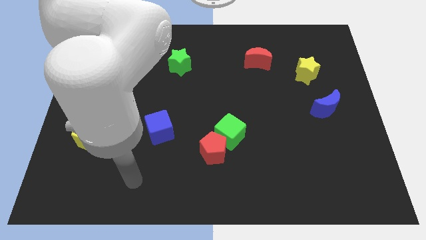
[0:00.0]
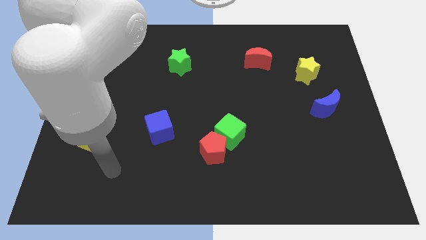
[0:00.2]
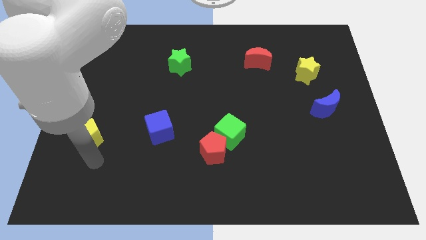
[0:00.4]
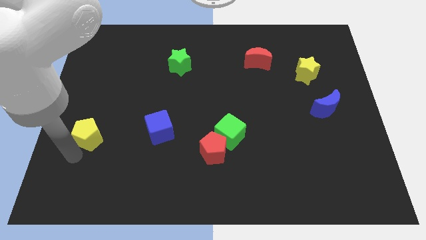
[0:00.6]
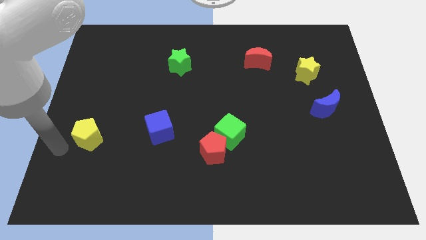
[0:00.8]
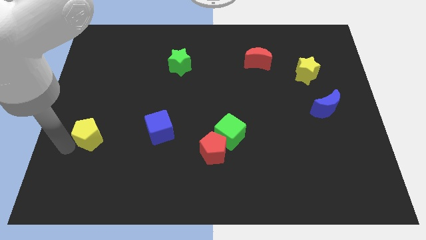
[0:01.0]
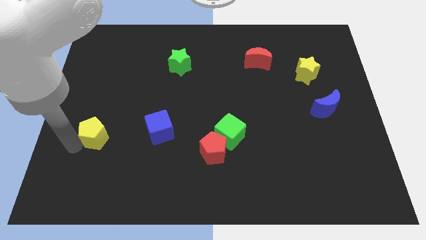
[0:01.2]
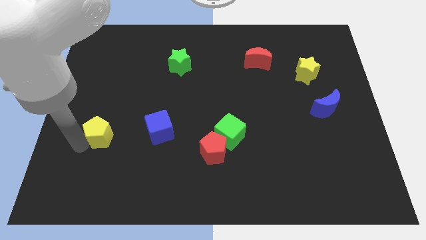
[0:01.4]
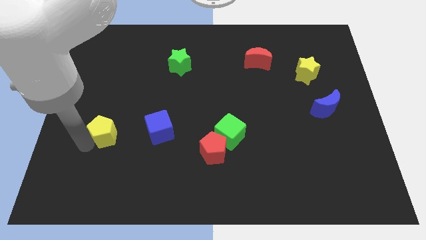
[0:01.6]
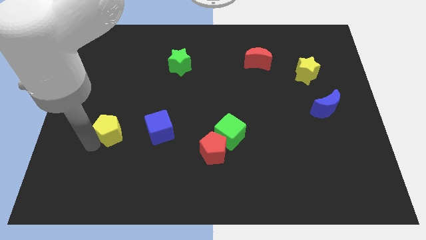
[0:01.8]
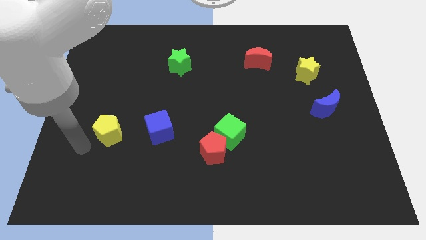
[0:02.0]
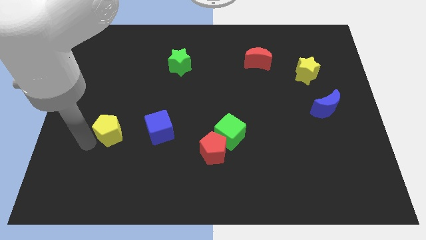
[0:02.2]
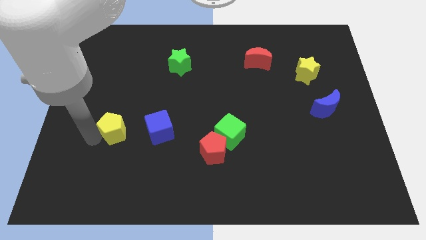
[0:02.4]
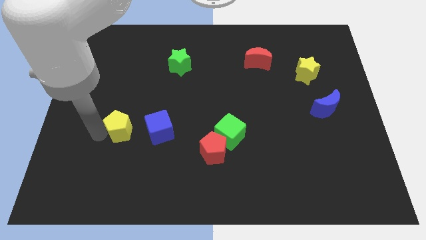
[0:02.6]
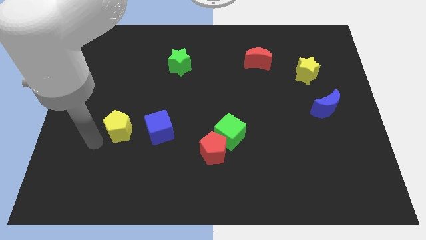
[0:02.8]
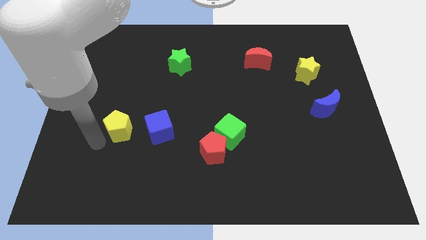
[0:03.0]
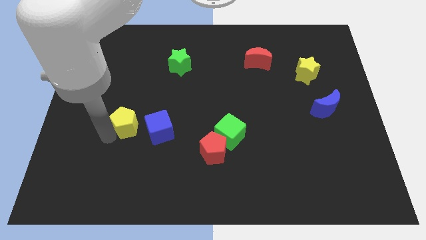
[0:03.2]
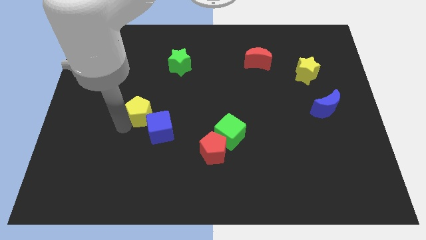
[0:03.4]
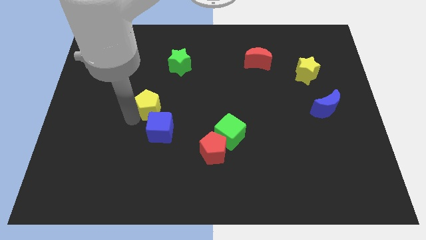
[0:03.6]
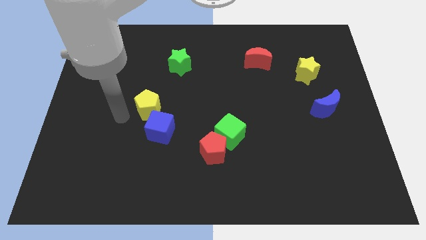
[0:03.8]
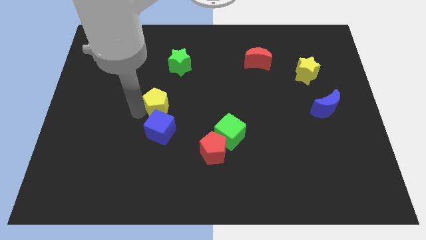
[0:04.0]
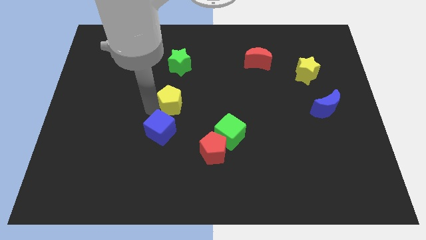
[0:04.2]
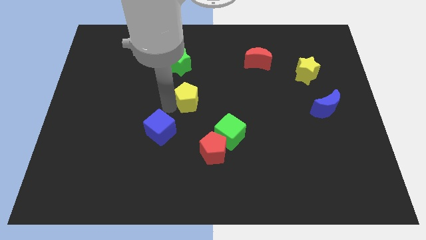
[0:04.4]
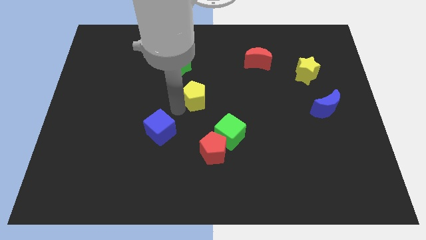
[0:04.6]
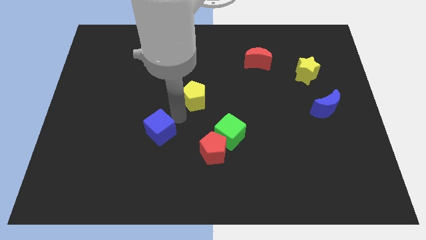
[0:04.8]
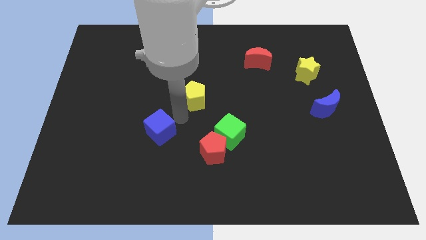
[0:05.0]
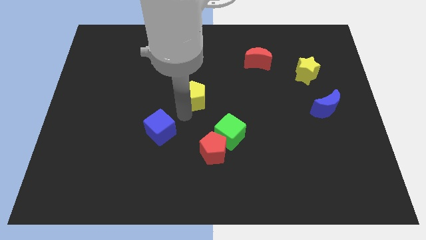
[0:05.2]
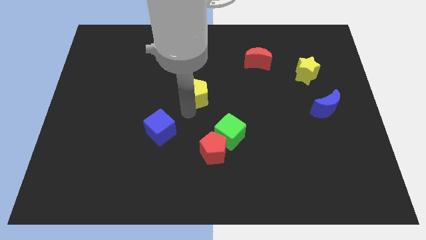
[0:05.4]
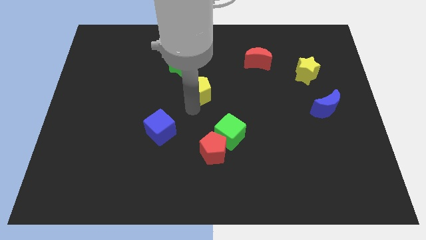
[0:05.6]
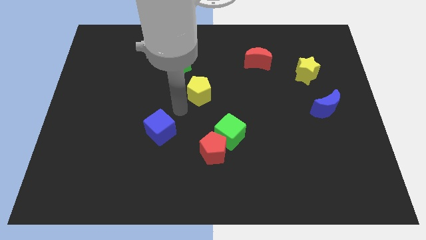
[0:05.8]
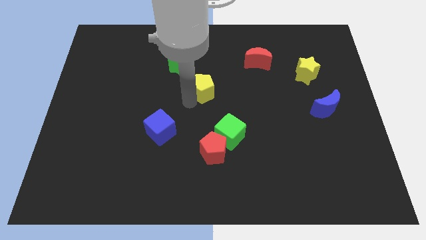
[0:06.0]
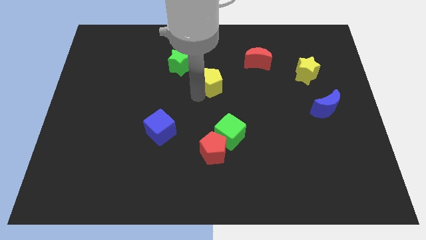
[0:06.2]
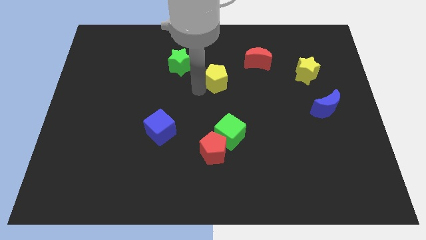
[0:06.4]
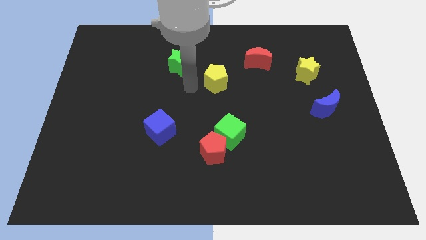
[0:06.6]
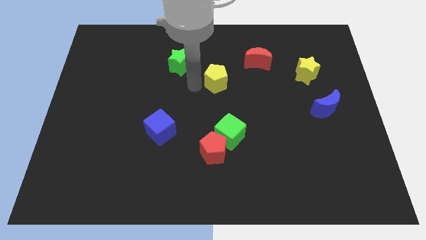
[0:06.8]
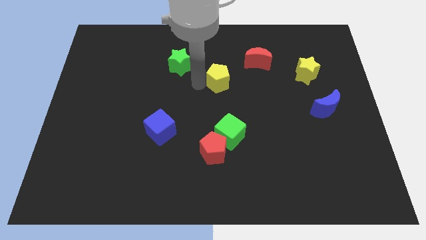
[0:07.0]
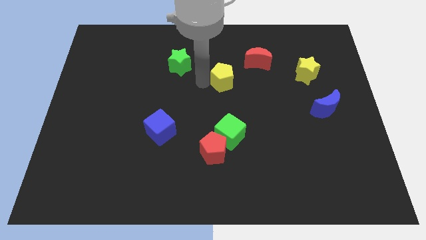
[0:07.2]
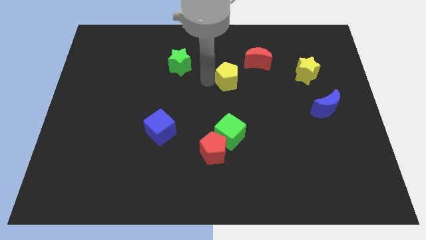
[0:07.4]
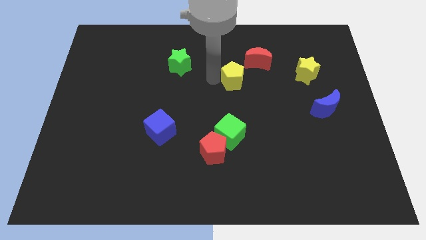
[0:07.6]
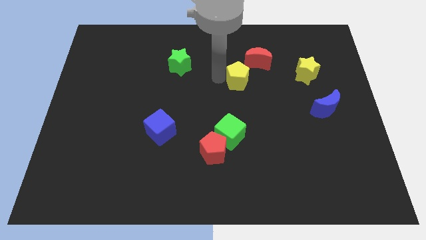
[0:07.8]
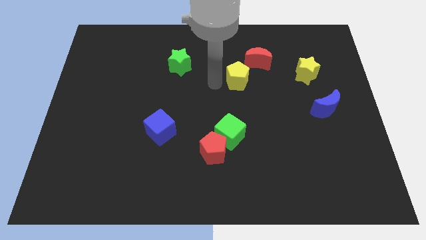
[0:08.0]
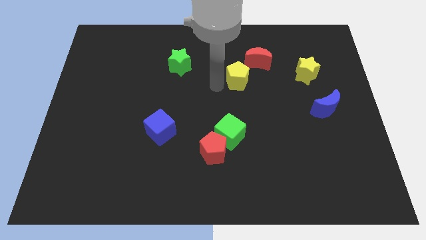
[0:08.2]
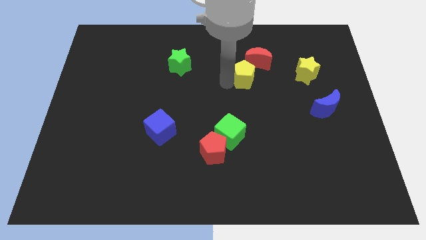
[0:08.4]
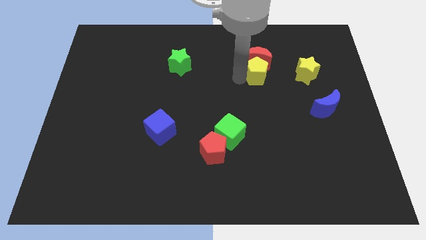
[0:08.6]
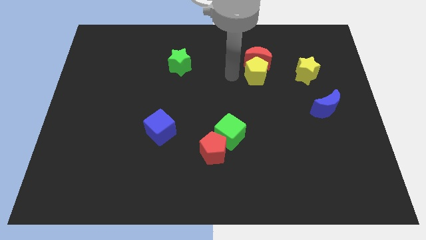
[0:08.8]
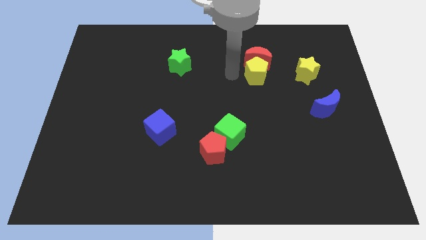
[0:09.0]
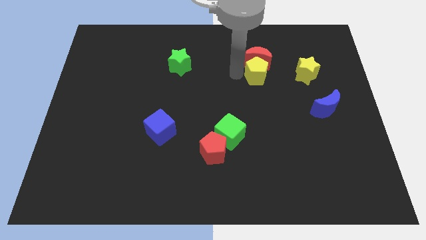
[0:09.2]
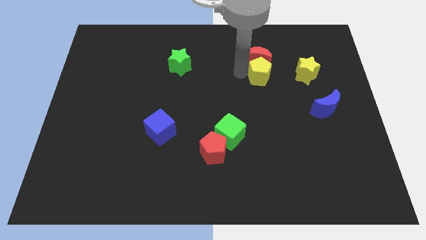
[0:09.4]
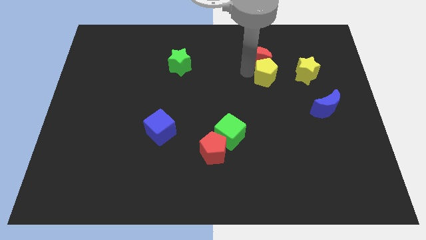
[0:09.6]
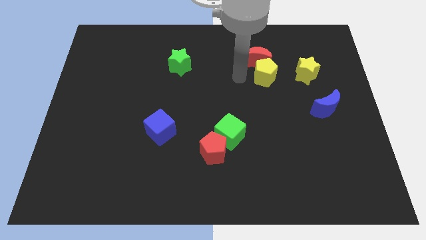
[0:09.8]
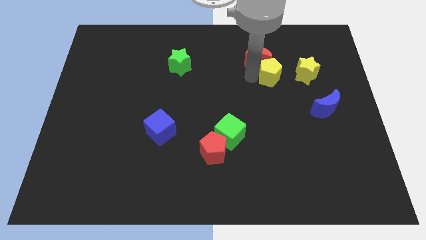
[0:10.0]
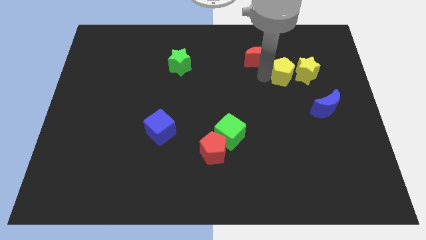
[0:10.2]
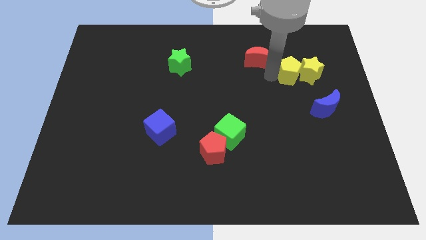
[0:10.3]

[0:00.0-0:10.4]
push the yellow pentagon to the yellow star

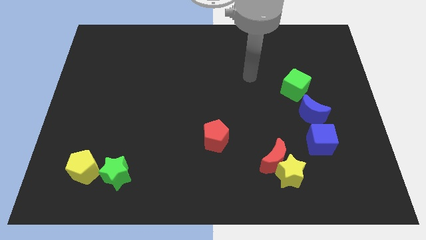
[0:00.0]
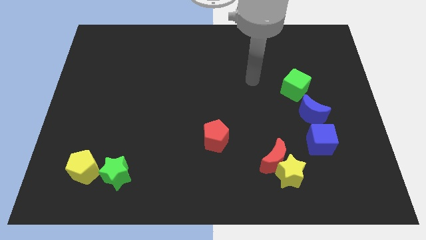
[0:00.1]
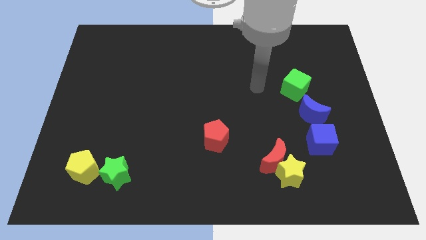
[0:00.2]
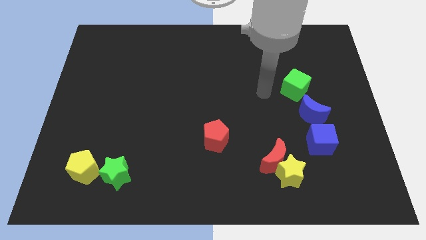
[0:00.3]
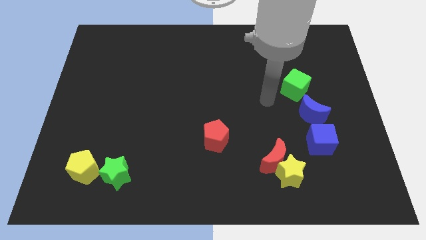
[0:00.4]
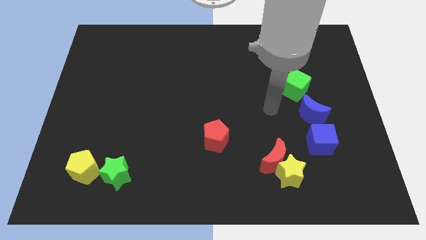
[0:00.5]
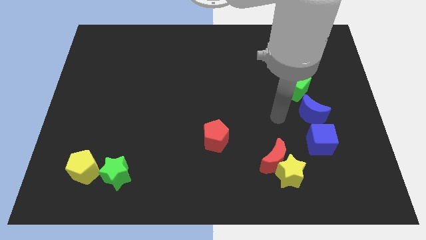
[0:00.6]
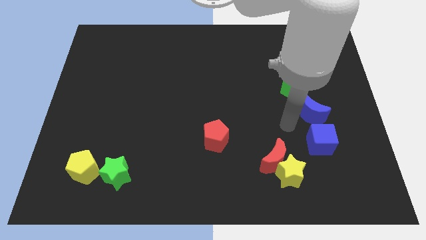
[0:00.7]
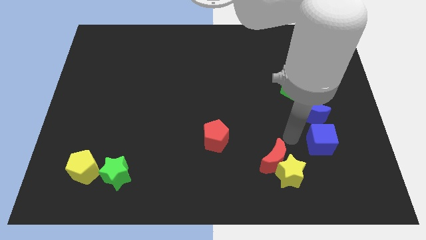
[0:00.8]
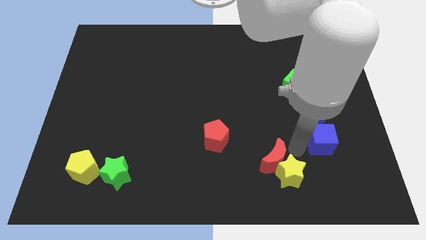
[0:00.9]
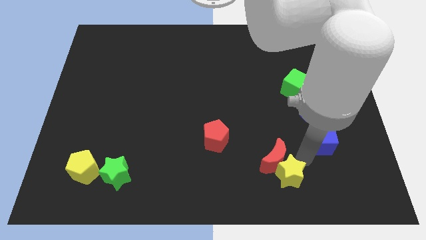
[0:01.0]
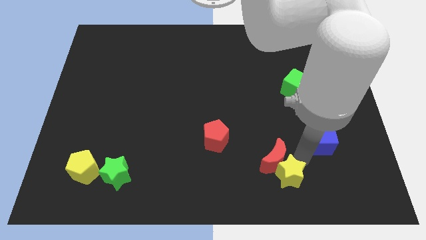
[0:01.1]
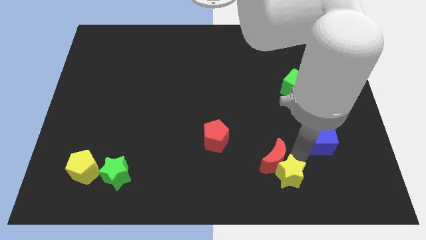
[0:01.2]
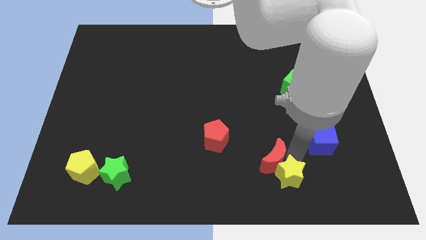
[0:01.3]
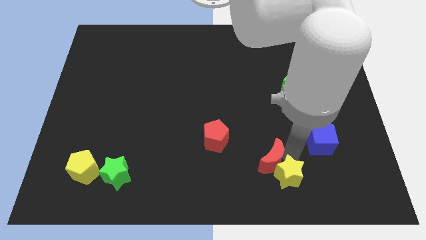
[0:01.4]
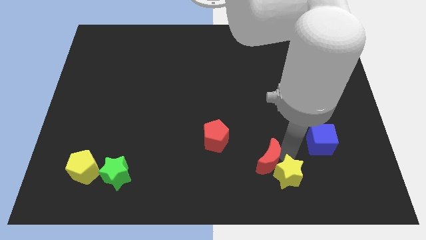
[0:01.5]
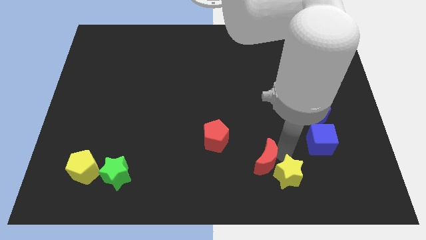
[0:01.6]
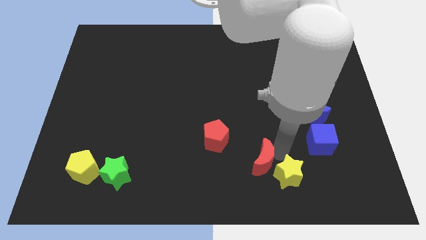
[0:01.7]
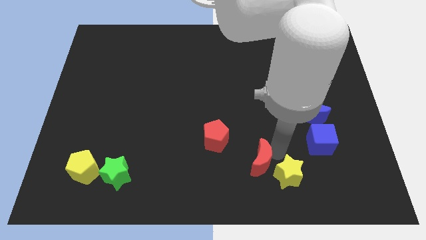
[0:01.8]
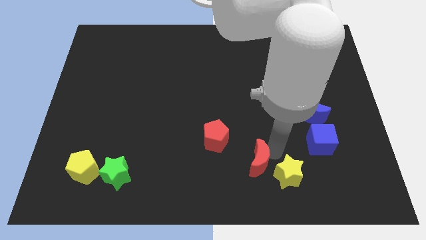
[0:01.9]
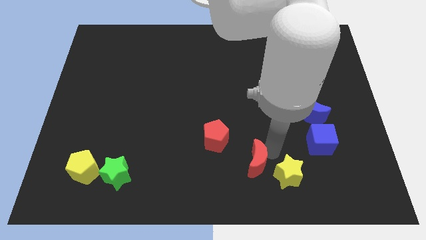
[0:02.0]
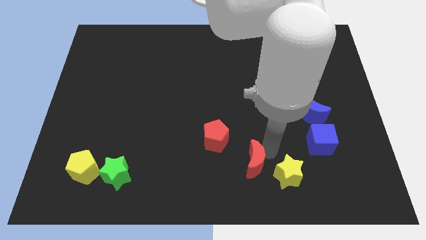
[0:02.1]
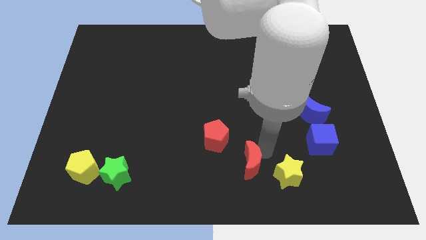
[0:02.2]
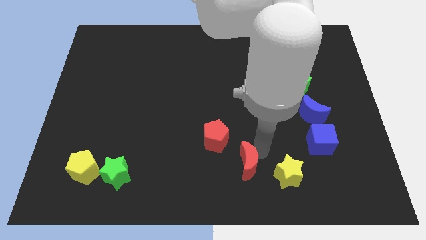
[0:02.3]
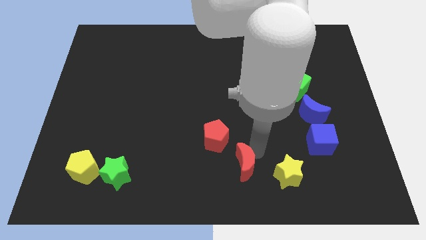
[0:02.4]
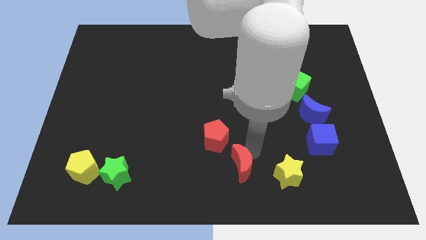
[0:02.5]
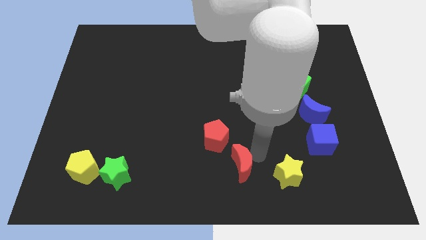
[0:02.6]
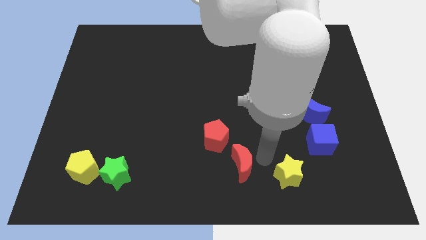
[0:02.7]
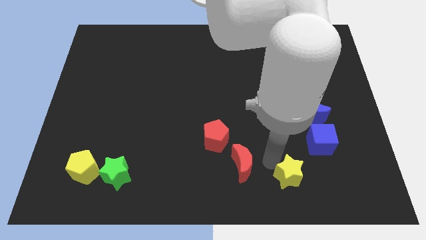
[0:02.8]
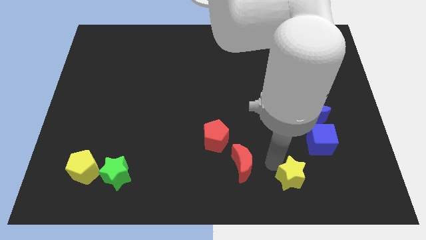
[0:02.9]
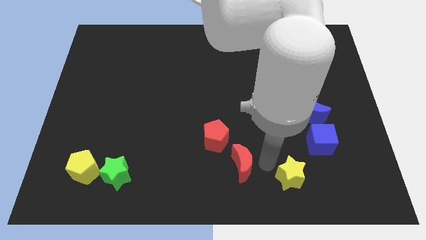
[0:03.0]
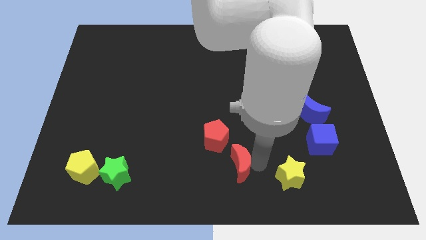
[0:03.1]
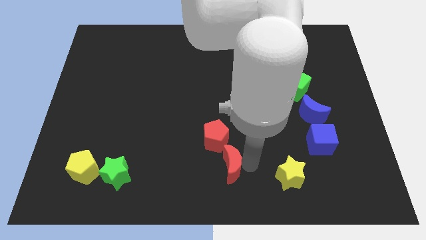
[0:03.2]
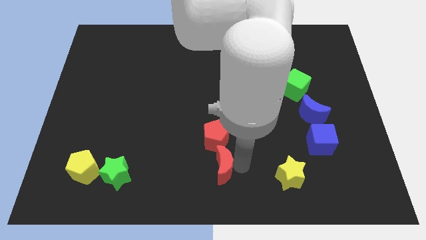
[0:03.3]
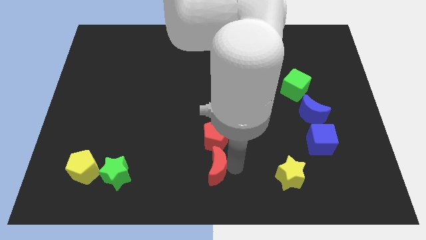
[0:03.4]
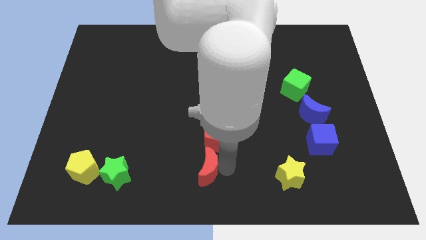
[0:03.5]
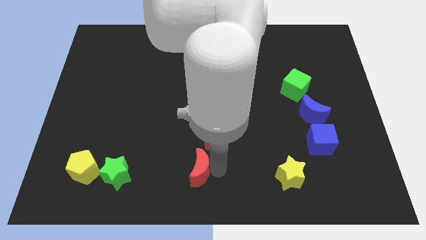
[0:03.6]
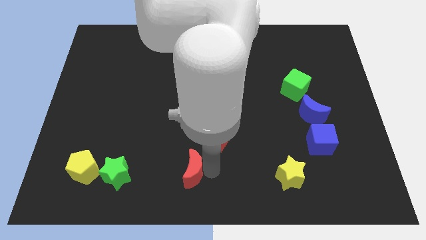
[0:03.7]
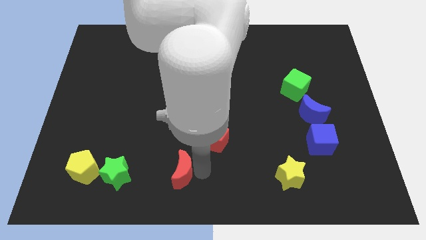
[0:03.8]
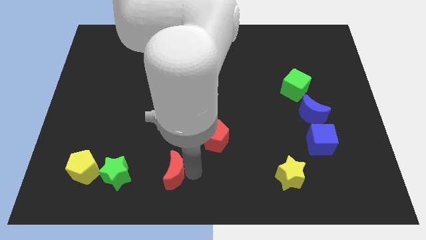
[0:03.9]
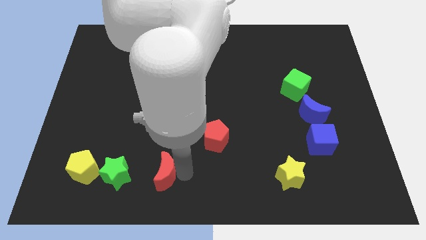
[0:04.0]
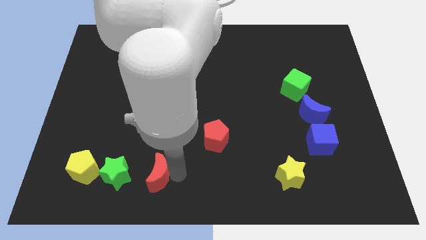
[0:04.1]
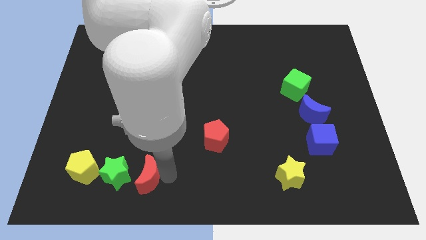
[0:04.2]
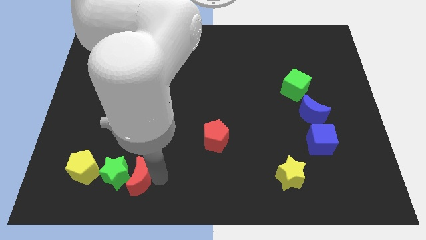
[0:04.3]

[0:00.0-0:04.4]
slide the red moon towards the green star
